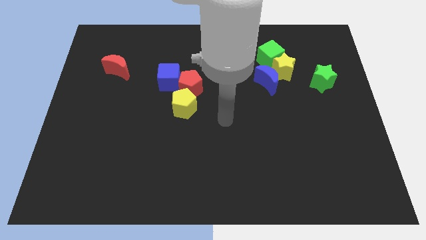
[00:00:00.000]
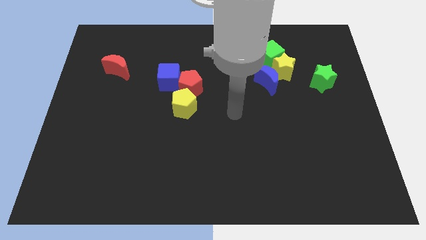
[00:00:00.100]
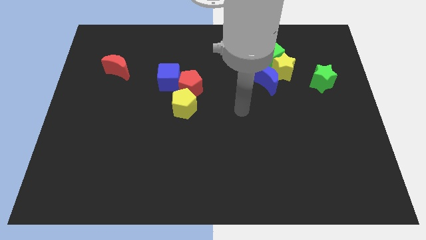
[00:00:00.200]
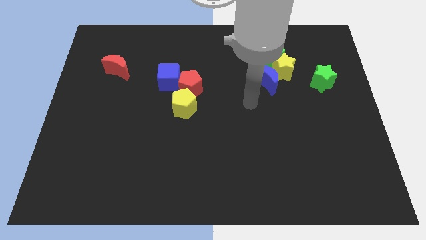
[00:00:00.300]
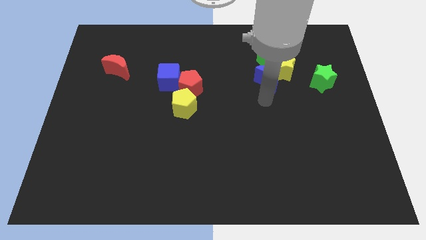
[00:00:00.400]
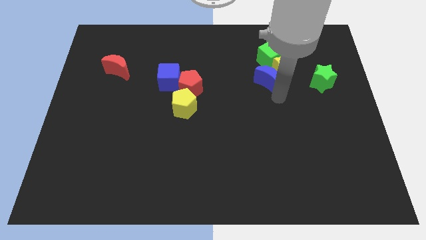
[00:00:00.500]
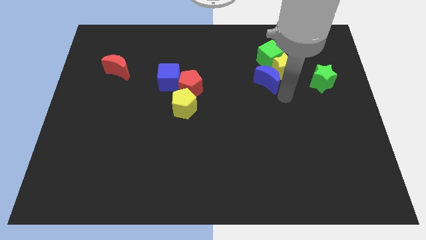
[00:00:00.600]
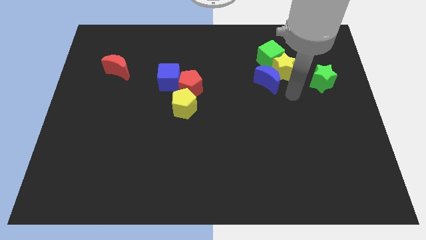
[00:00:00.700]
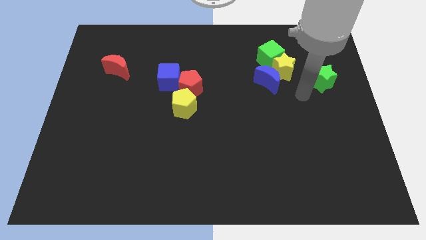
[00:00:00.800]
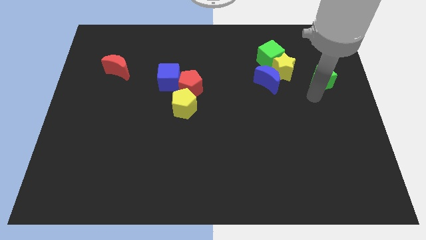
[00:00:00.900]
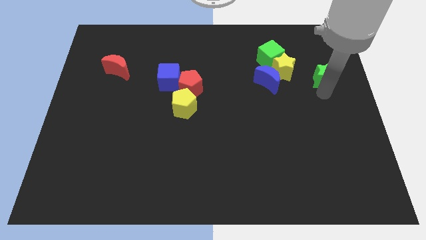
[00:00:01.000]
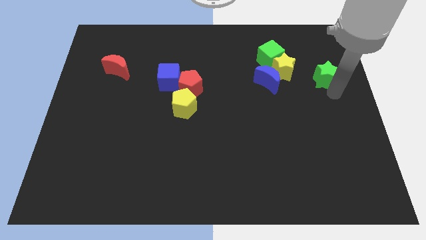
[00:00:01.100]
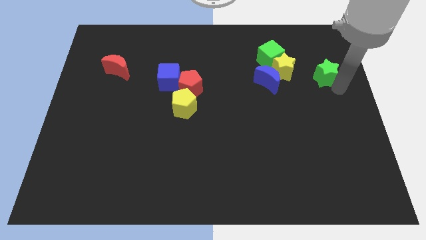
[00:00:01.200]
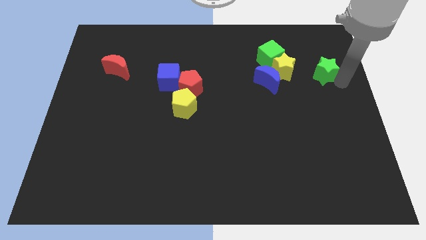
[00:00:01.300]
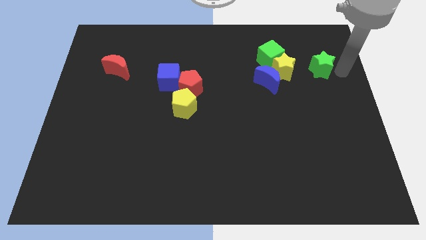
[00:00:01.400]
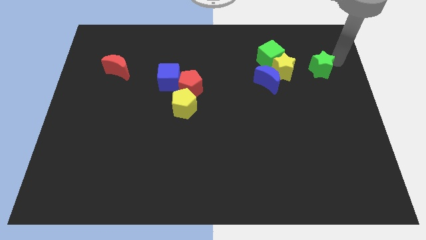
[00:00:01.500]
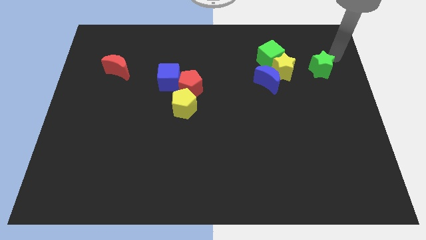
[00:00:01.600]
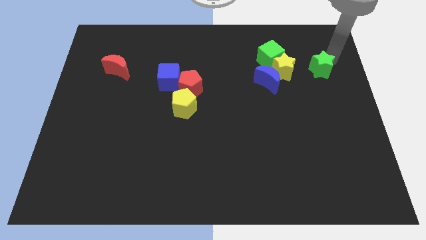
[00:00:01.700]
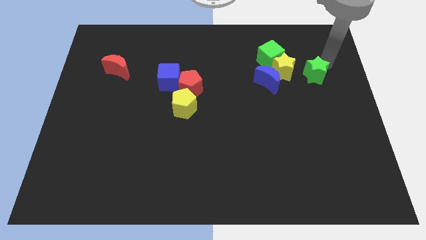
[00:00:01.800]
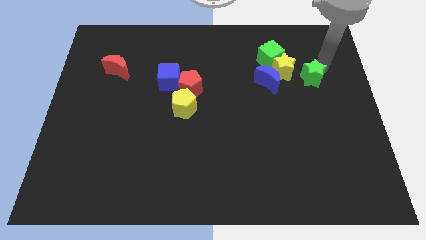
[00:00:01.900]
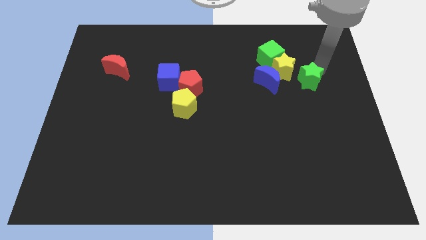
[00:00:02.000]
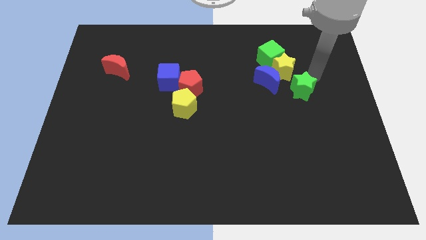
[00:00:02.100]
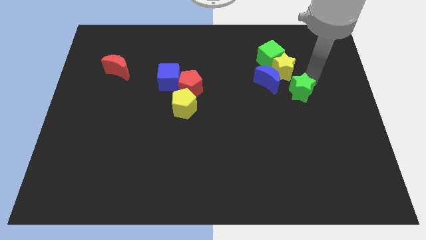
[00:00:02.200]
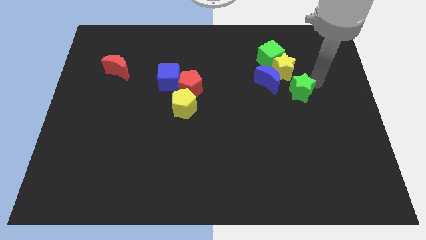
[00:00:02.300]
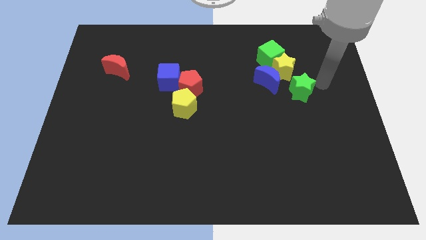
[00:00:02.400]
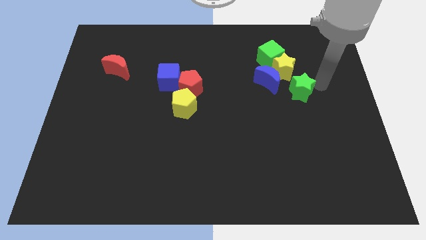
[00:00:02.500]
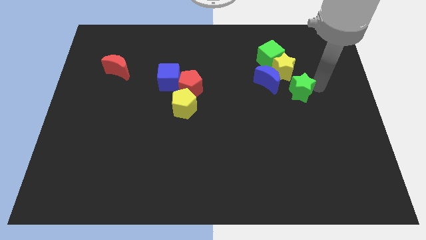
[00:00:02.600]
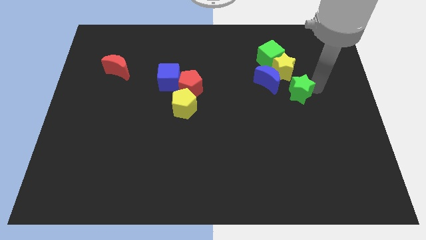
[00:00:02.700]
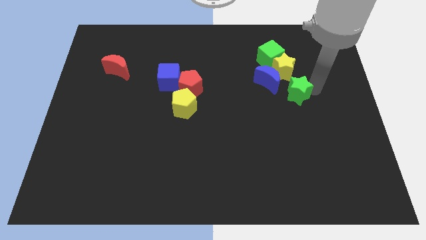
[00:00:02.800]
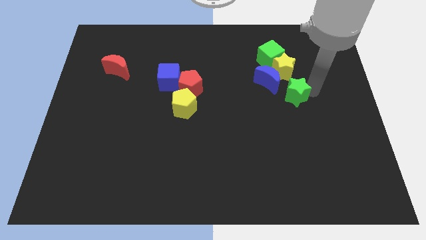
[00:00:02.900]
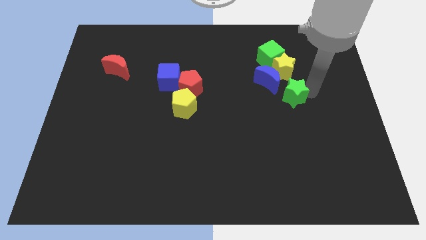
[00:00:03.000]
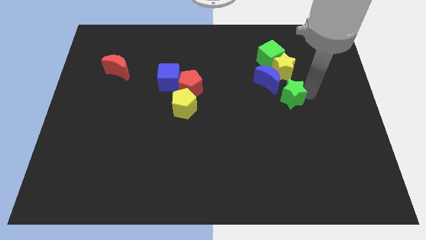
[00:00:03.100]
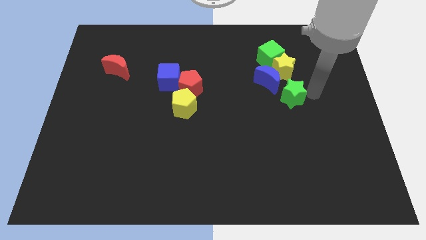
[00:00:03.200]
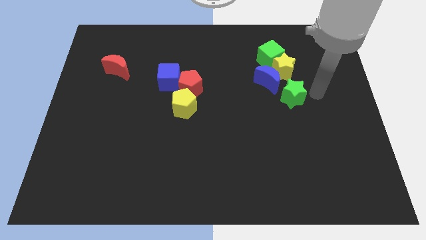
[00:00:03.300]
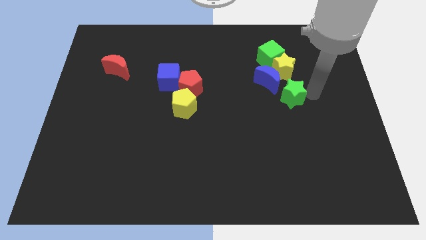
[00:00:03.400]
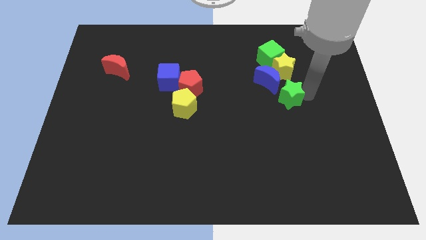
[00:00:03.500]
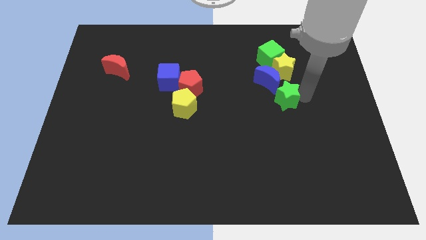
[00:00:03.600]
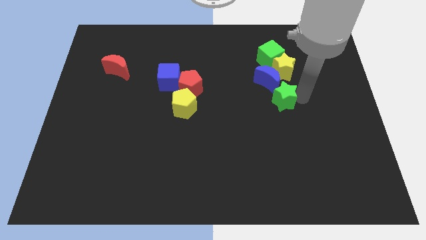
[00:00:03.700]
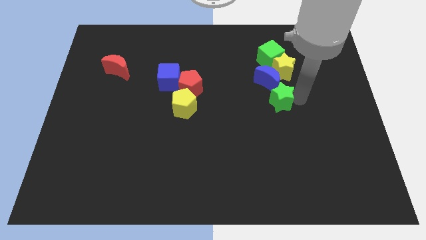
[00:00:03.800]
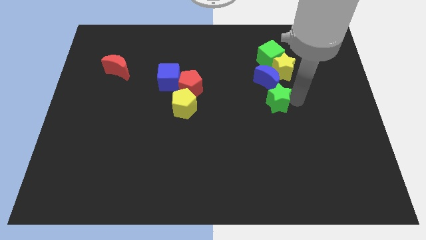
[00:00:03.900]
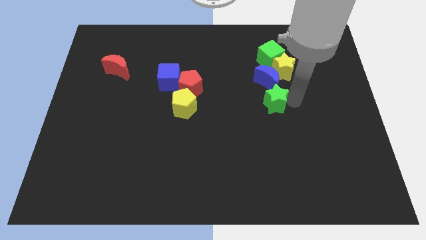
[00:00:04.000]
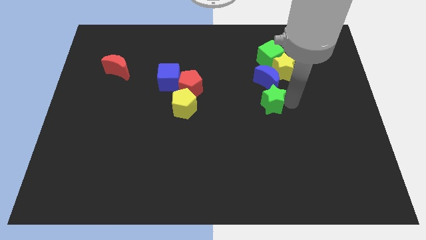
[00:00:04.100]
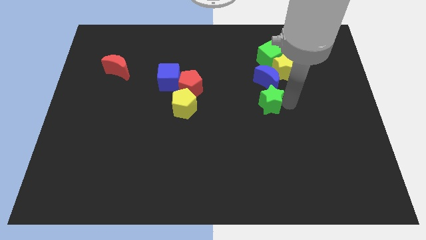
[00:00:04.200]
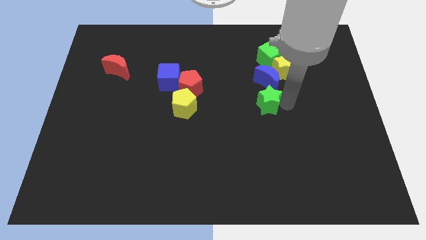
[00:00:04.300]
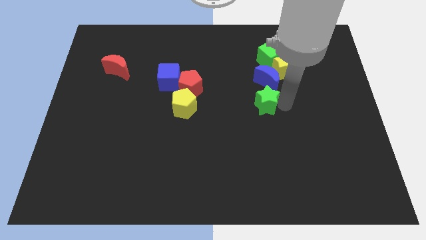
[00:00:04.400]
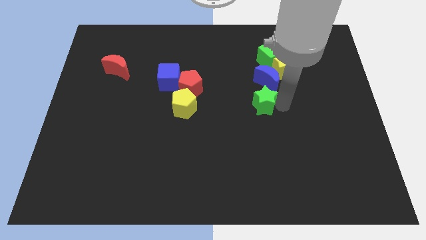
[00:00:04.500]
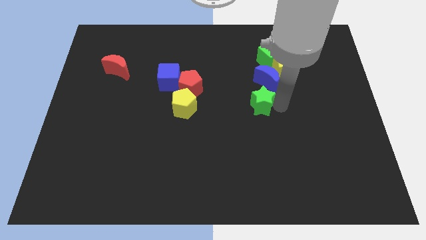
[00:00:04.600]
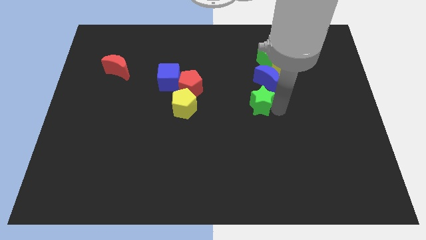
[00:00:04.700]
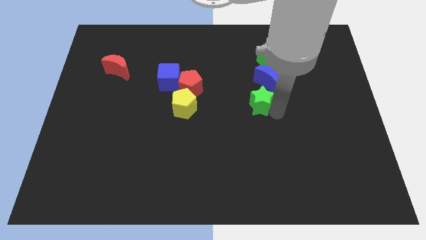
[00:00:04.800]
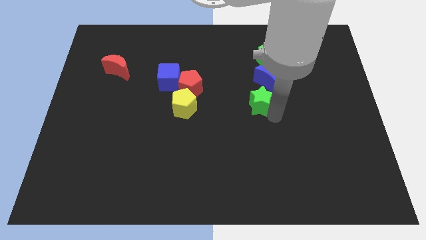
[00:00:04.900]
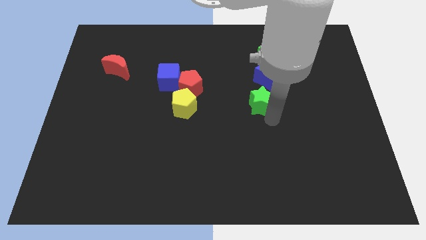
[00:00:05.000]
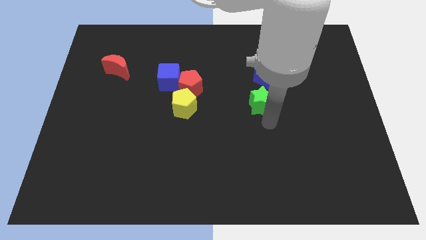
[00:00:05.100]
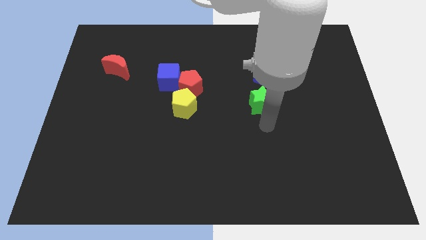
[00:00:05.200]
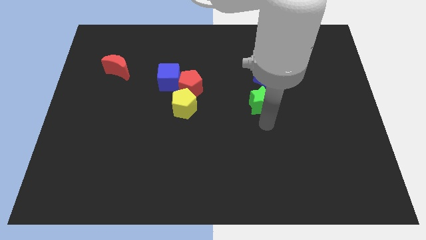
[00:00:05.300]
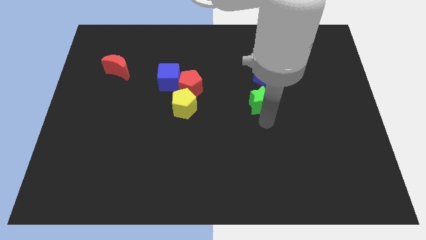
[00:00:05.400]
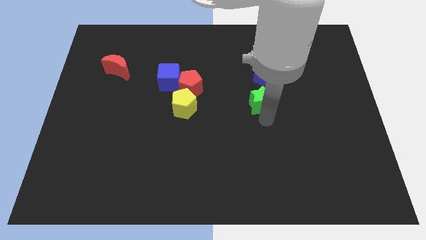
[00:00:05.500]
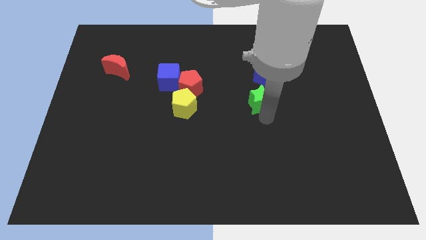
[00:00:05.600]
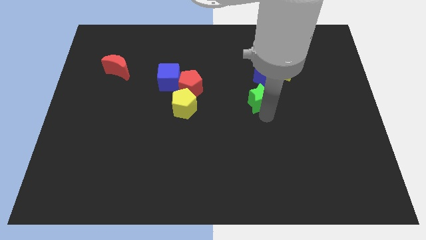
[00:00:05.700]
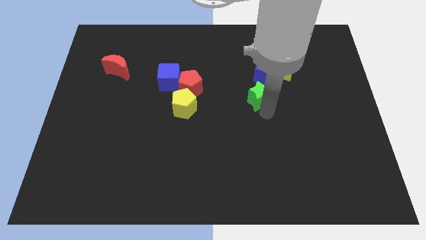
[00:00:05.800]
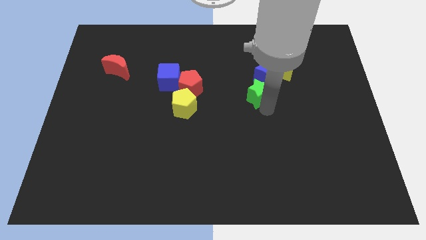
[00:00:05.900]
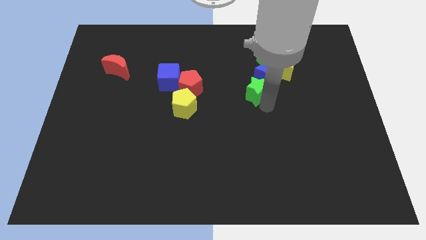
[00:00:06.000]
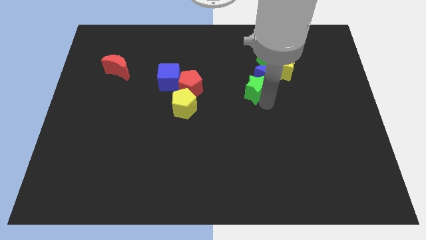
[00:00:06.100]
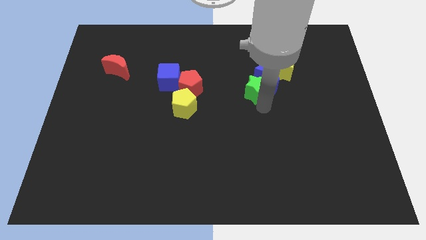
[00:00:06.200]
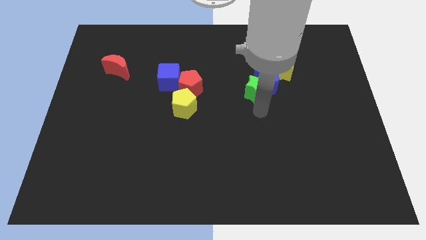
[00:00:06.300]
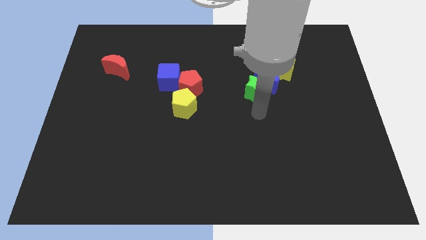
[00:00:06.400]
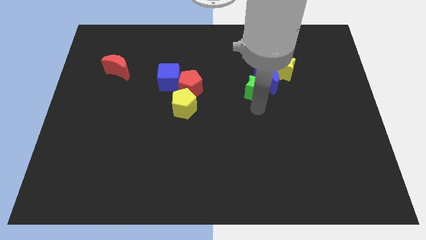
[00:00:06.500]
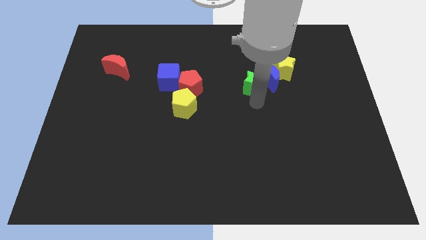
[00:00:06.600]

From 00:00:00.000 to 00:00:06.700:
put the green star to the bottom left of the green cube

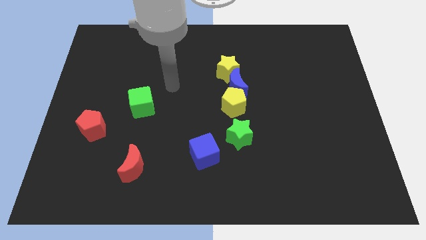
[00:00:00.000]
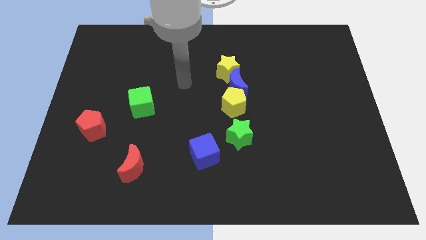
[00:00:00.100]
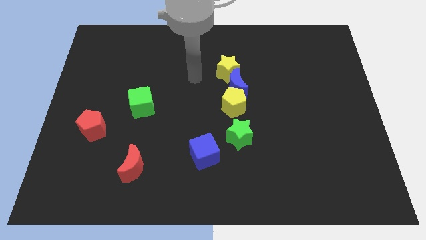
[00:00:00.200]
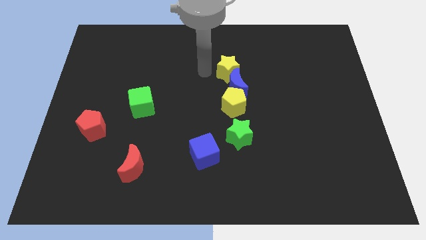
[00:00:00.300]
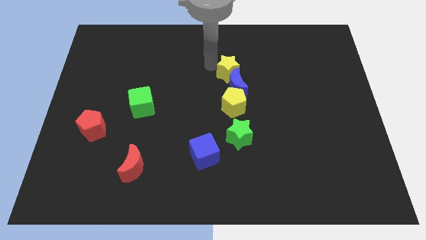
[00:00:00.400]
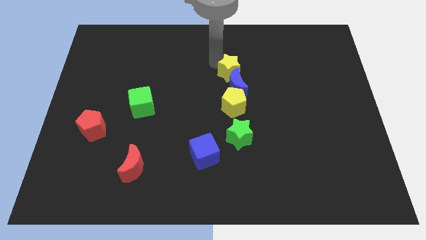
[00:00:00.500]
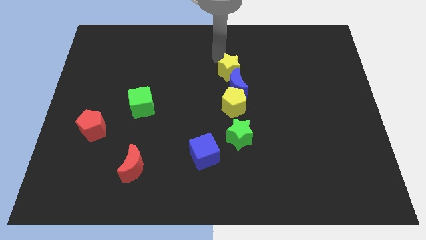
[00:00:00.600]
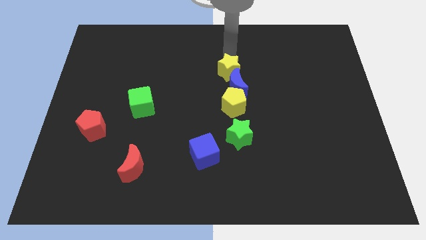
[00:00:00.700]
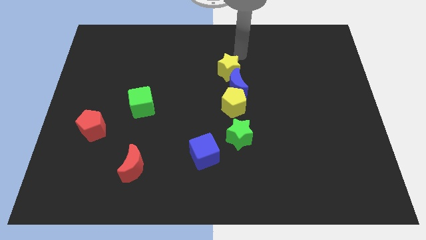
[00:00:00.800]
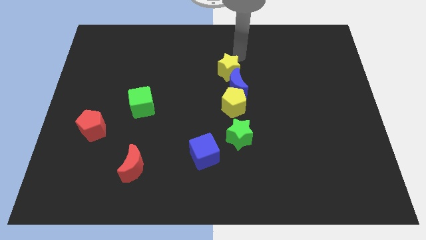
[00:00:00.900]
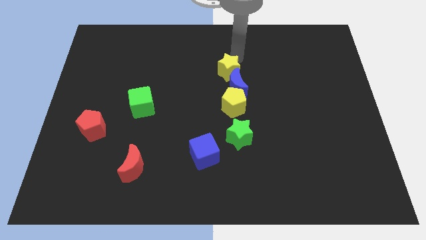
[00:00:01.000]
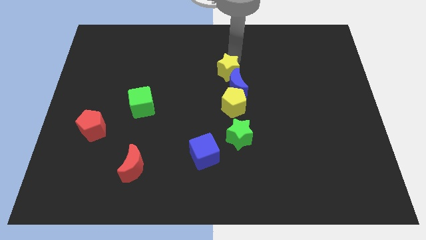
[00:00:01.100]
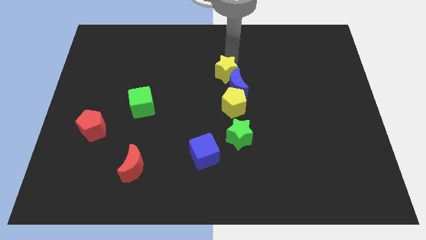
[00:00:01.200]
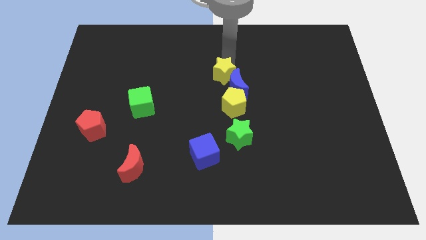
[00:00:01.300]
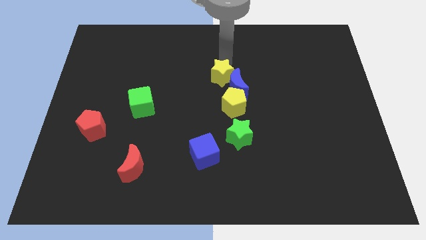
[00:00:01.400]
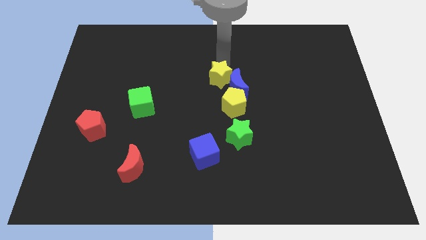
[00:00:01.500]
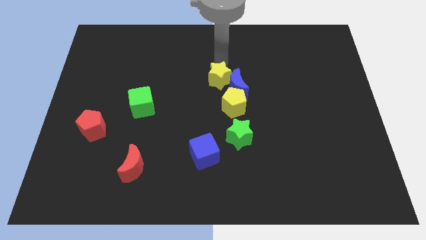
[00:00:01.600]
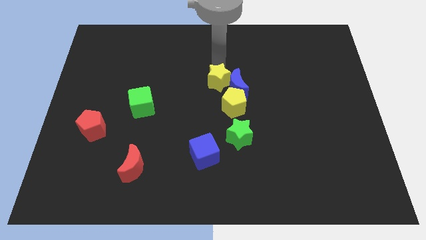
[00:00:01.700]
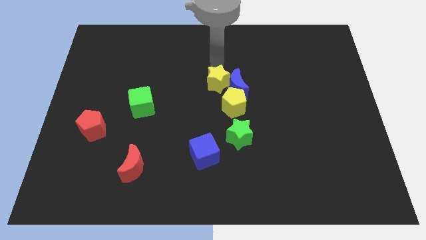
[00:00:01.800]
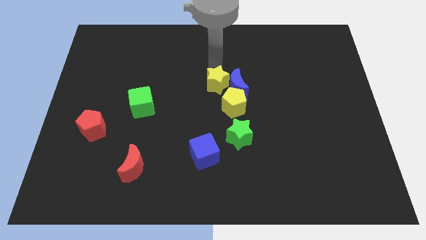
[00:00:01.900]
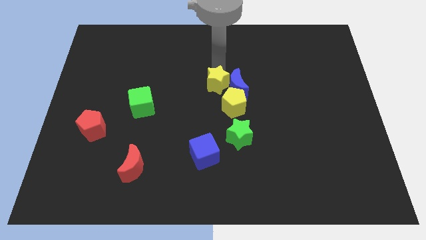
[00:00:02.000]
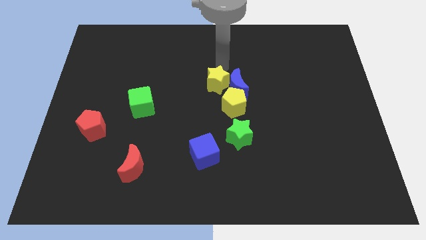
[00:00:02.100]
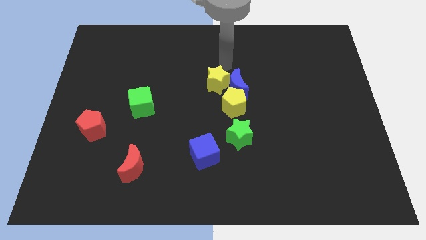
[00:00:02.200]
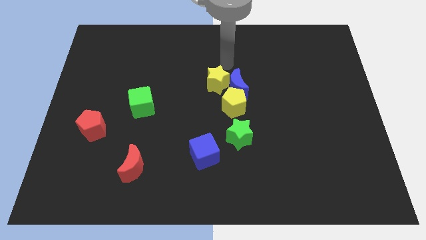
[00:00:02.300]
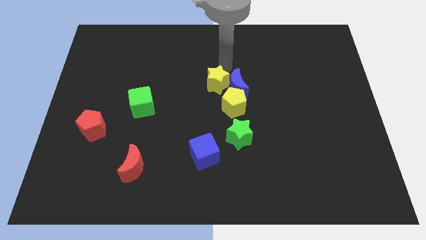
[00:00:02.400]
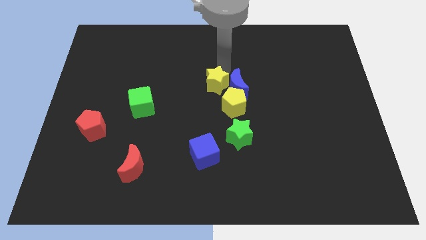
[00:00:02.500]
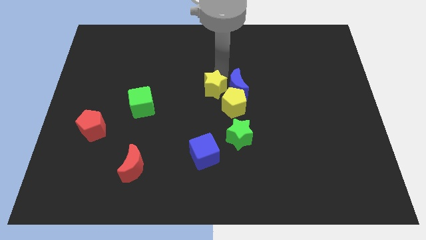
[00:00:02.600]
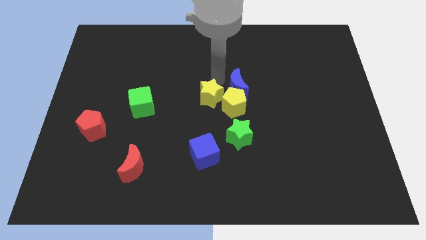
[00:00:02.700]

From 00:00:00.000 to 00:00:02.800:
put the yellow star above the blue cube
